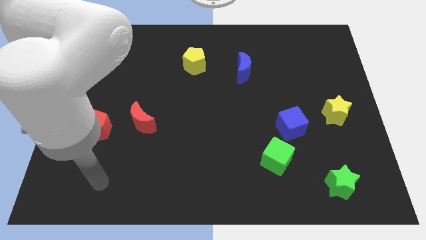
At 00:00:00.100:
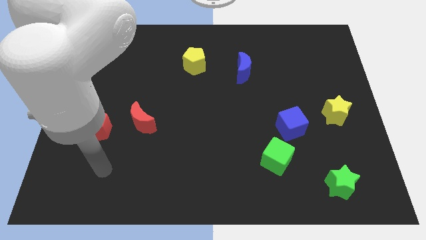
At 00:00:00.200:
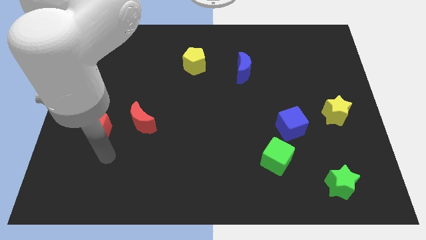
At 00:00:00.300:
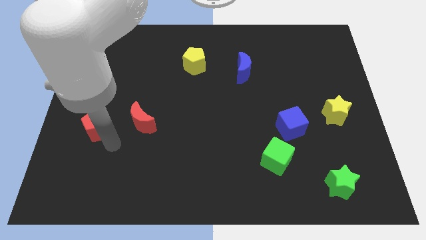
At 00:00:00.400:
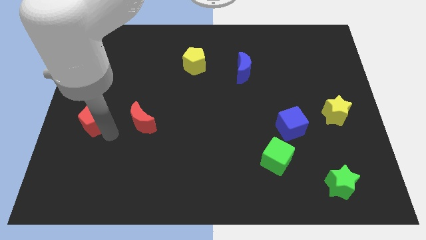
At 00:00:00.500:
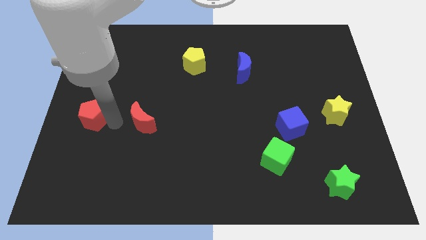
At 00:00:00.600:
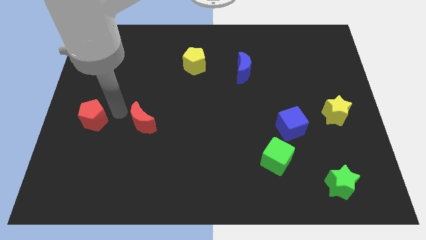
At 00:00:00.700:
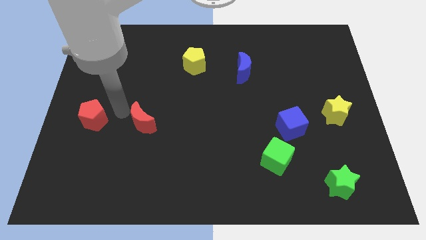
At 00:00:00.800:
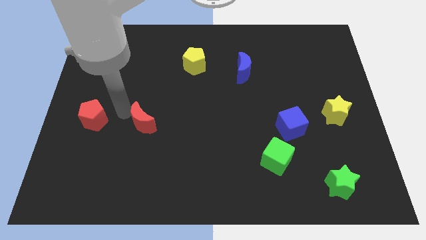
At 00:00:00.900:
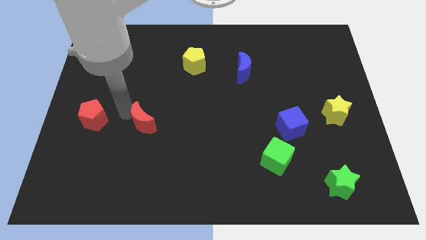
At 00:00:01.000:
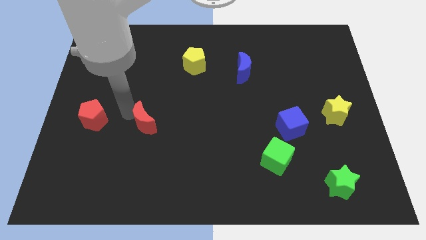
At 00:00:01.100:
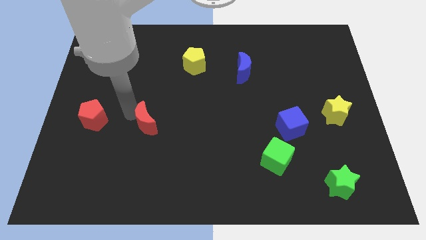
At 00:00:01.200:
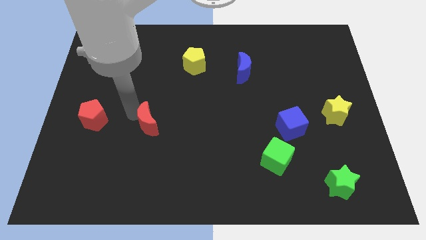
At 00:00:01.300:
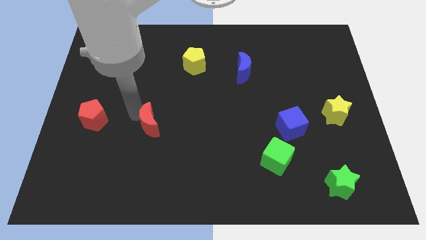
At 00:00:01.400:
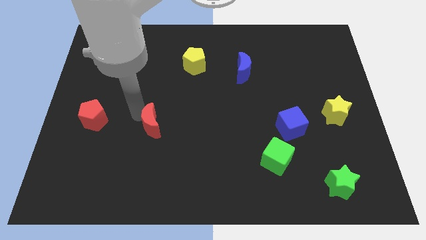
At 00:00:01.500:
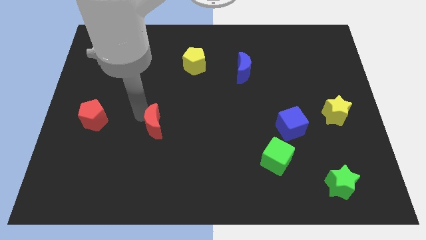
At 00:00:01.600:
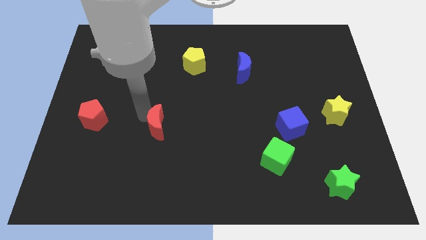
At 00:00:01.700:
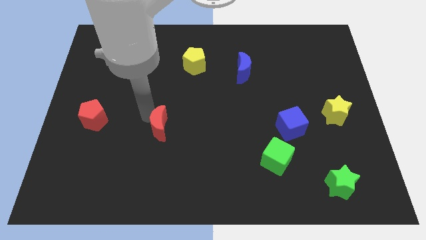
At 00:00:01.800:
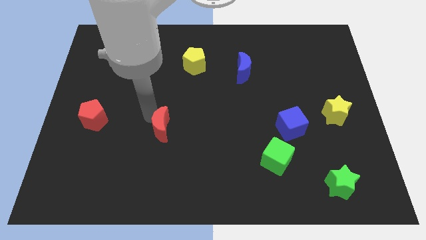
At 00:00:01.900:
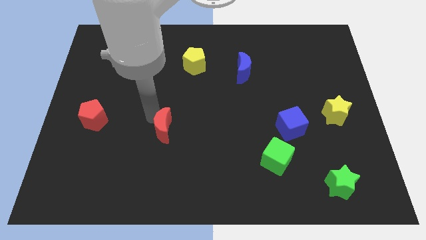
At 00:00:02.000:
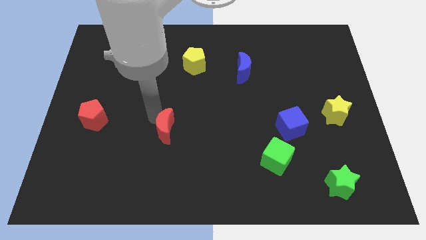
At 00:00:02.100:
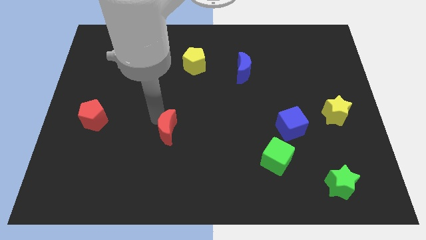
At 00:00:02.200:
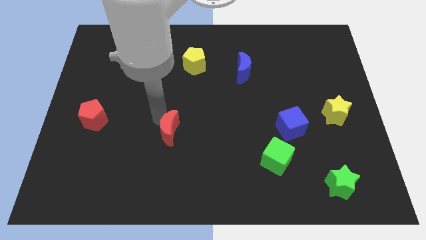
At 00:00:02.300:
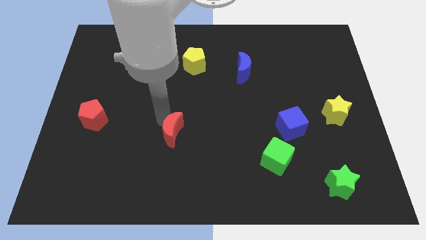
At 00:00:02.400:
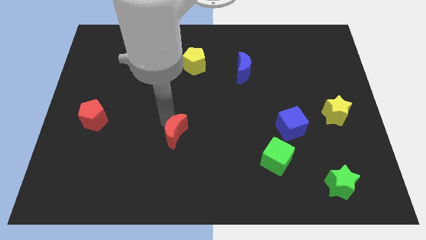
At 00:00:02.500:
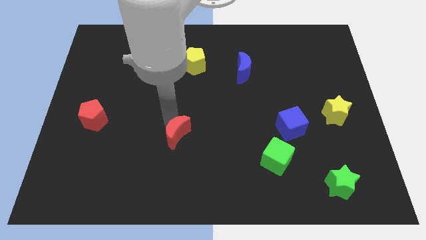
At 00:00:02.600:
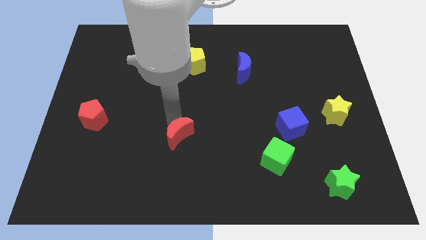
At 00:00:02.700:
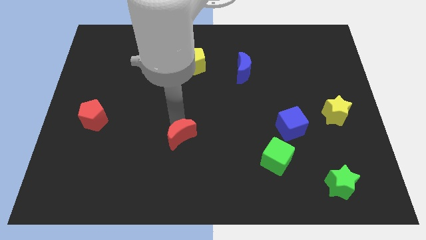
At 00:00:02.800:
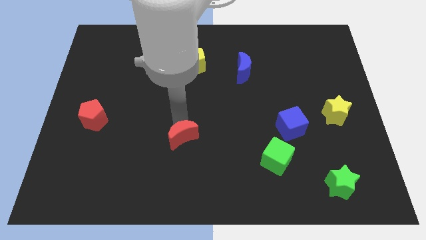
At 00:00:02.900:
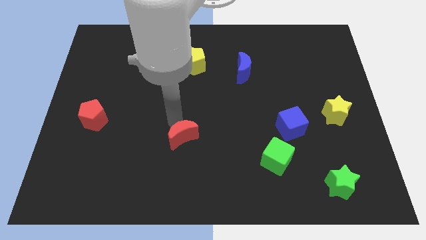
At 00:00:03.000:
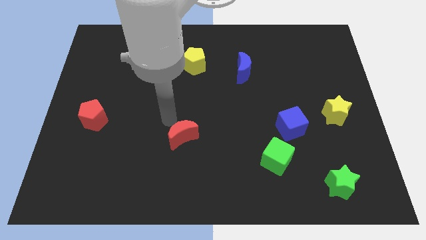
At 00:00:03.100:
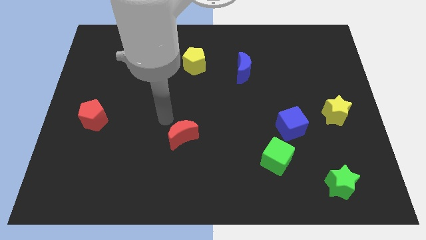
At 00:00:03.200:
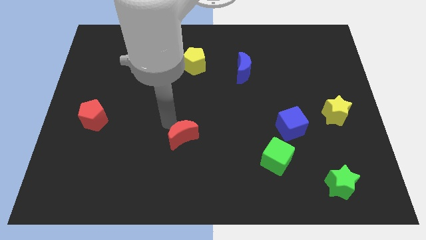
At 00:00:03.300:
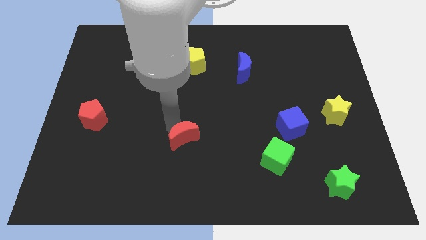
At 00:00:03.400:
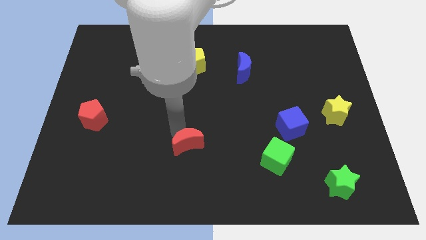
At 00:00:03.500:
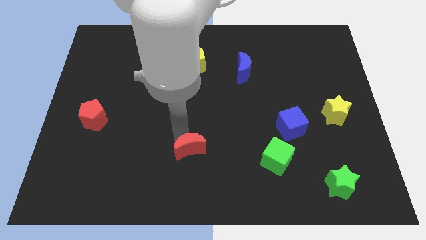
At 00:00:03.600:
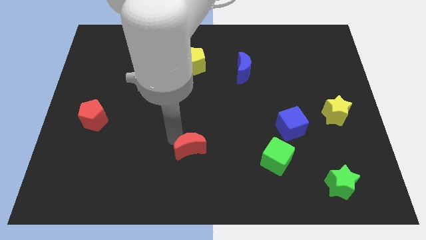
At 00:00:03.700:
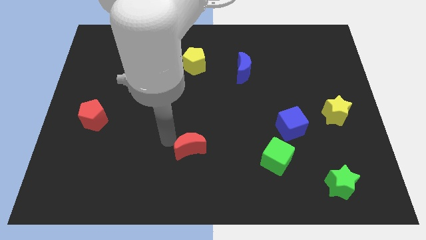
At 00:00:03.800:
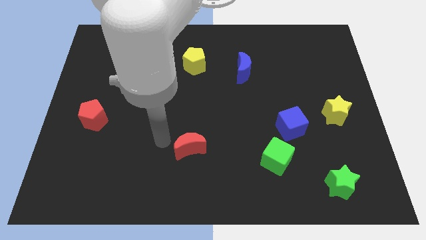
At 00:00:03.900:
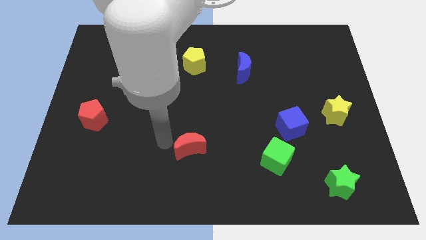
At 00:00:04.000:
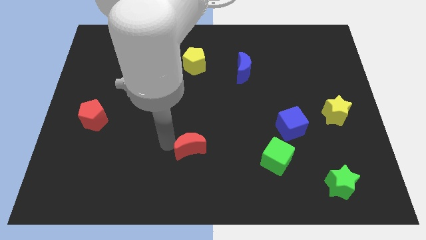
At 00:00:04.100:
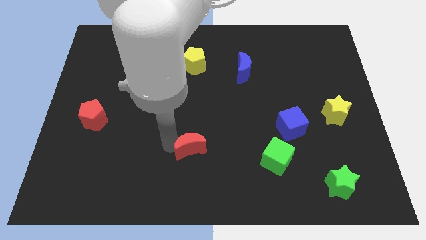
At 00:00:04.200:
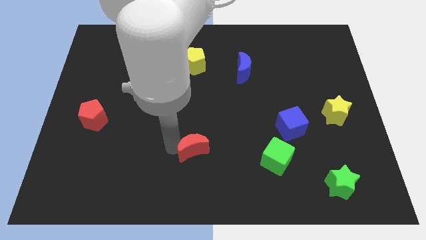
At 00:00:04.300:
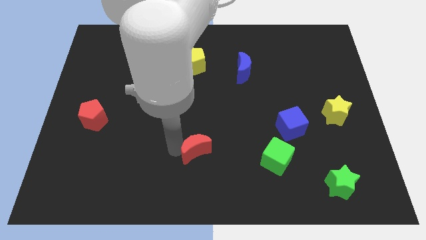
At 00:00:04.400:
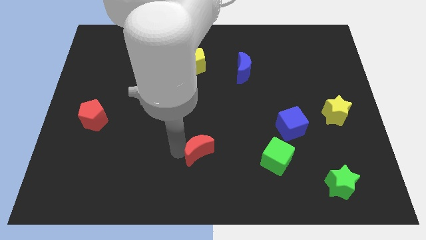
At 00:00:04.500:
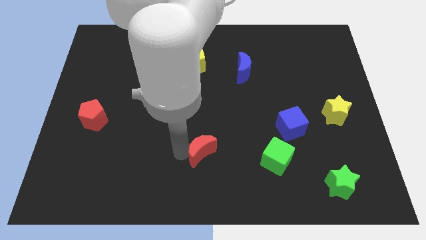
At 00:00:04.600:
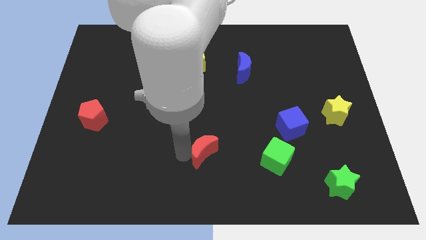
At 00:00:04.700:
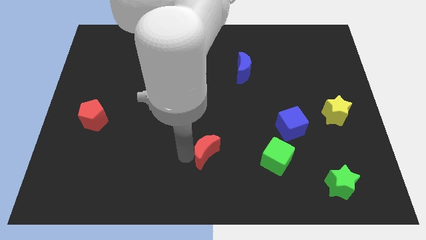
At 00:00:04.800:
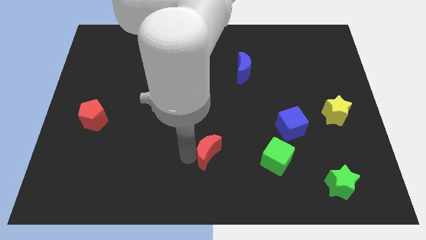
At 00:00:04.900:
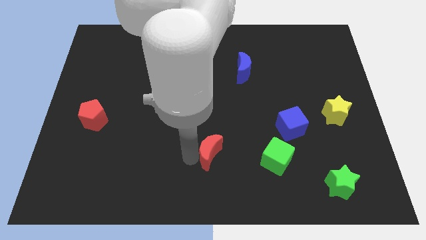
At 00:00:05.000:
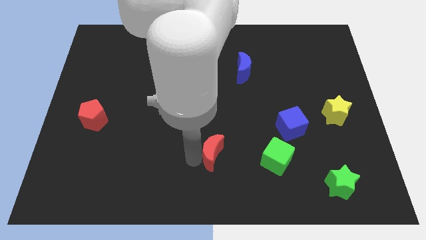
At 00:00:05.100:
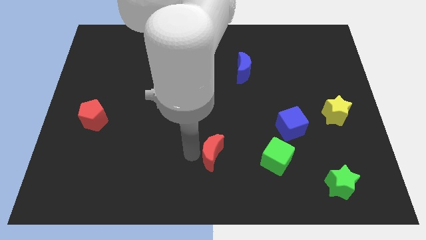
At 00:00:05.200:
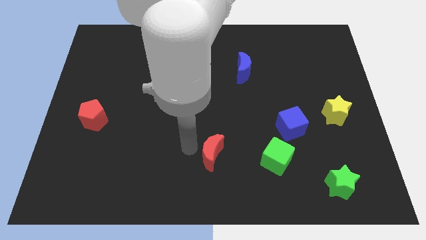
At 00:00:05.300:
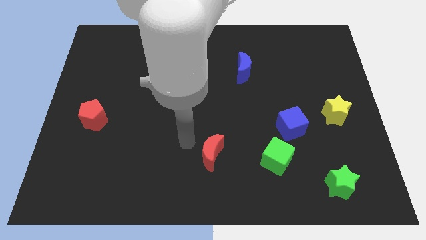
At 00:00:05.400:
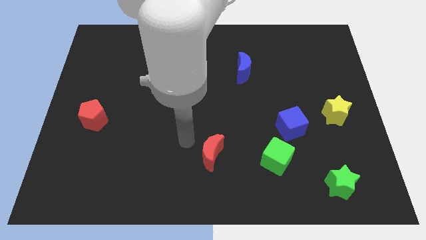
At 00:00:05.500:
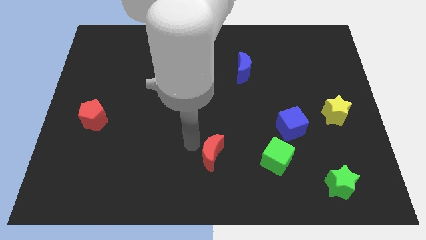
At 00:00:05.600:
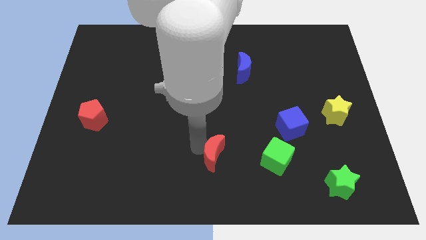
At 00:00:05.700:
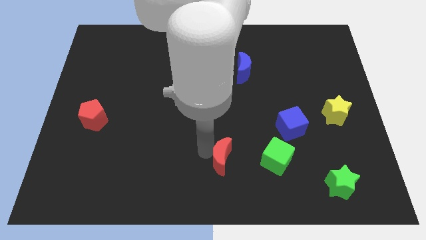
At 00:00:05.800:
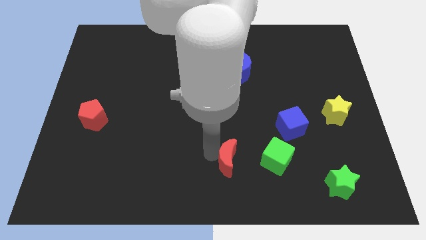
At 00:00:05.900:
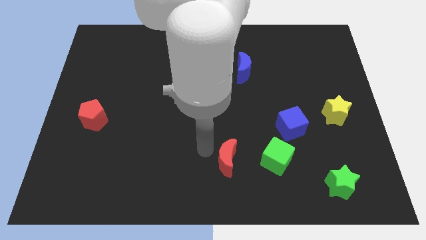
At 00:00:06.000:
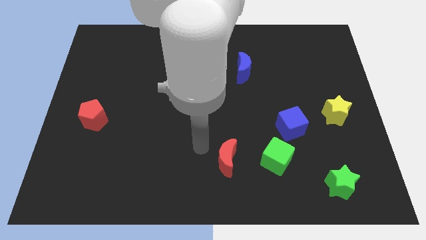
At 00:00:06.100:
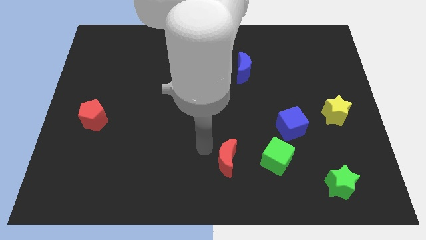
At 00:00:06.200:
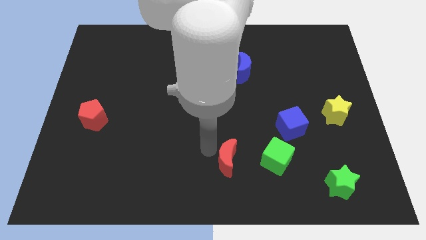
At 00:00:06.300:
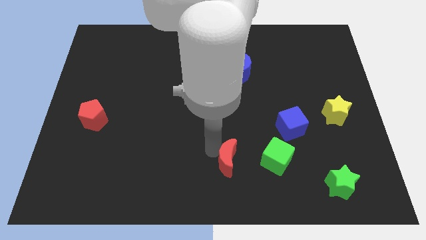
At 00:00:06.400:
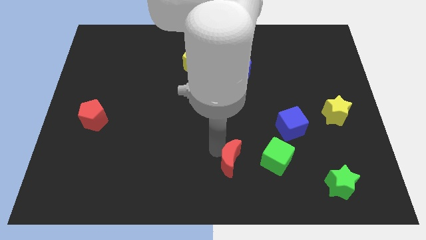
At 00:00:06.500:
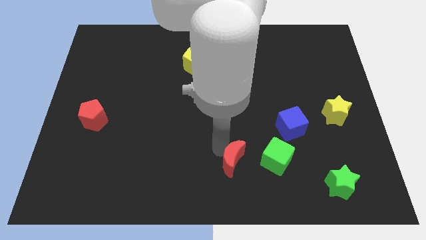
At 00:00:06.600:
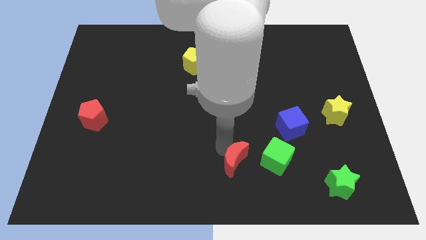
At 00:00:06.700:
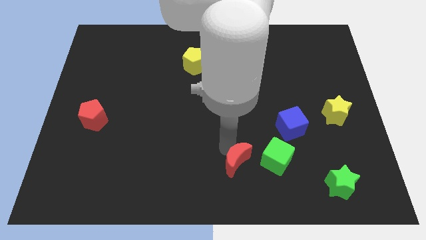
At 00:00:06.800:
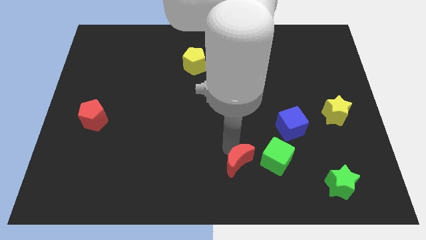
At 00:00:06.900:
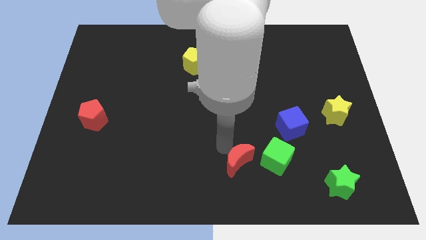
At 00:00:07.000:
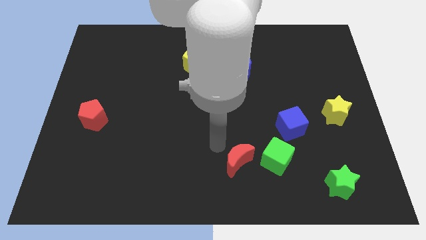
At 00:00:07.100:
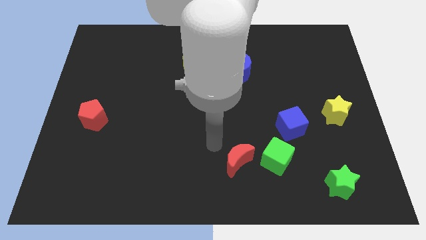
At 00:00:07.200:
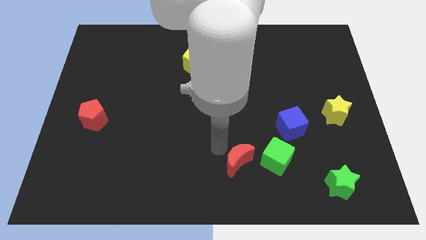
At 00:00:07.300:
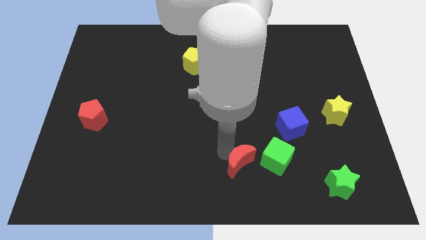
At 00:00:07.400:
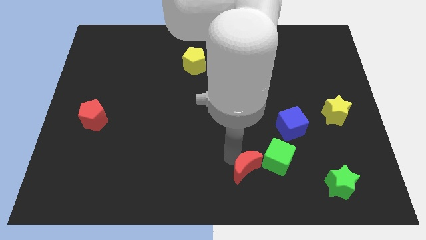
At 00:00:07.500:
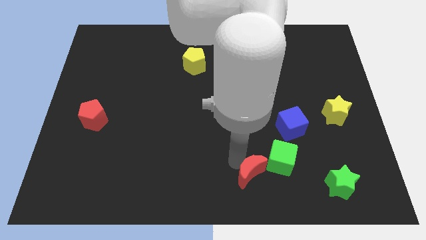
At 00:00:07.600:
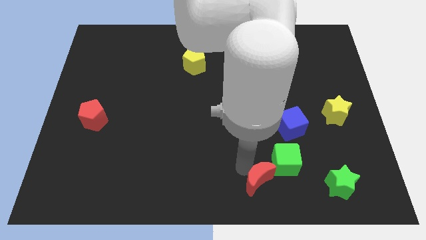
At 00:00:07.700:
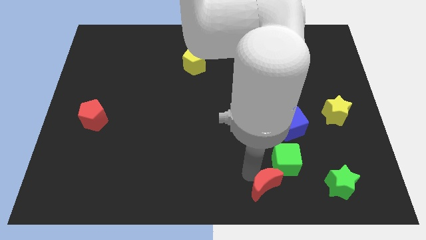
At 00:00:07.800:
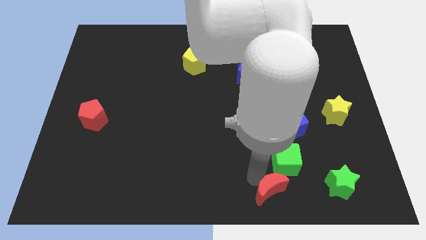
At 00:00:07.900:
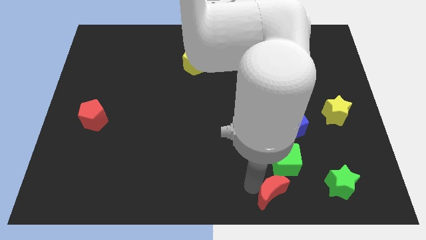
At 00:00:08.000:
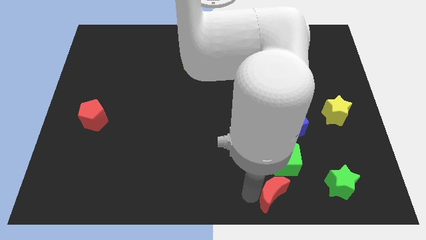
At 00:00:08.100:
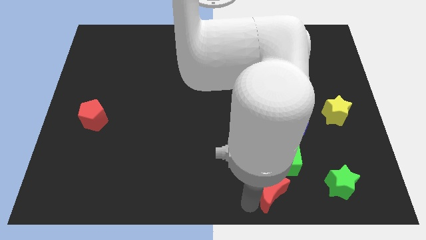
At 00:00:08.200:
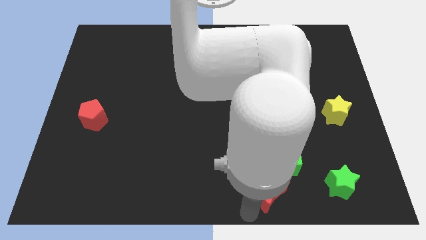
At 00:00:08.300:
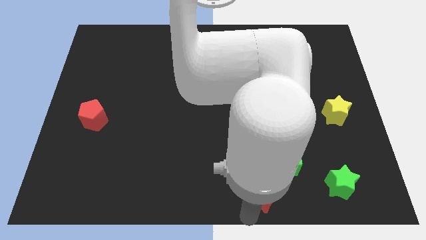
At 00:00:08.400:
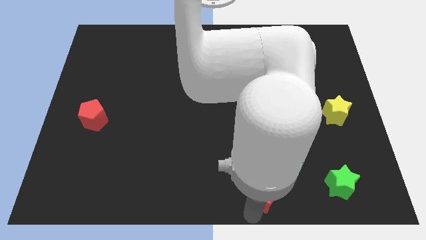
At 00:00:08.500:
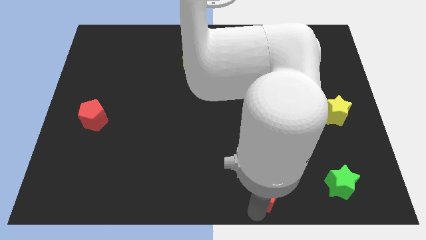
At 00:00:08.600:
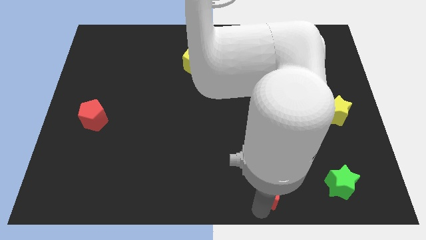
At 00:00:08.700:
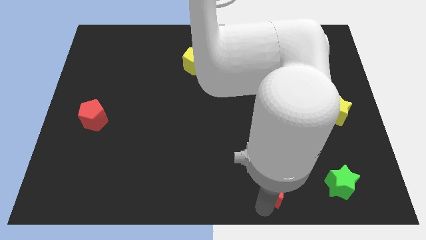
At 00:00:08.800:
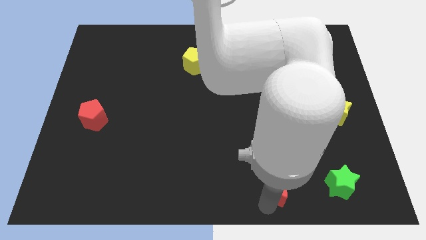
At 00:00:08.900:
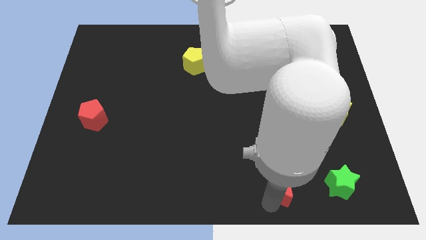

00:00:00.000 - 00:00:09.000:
push the red moon below the blue cube
